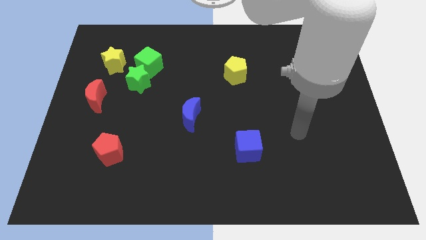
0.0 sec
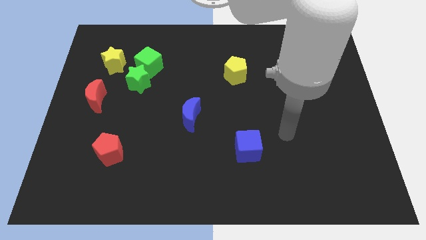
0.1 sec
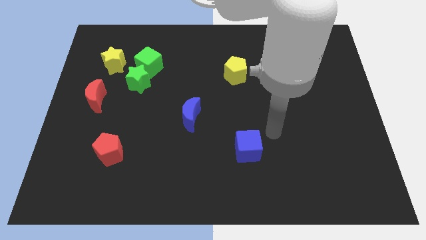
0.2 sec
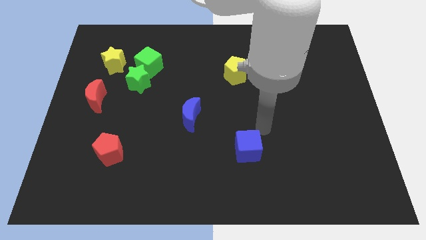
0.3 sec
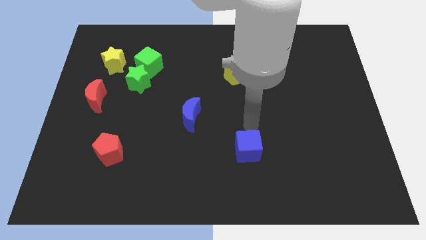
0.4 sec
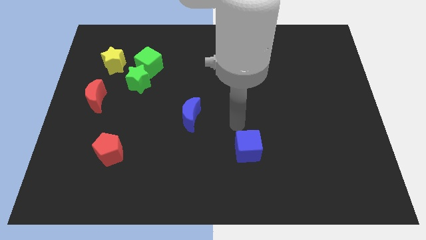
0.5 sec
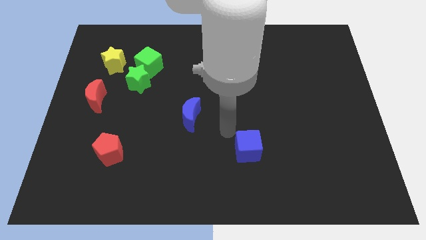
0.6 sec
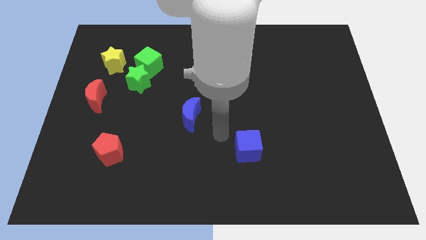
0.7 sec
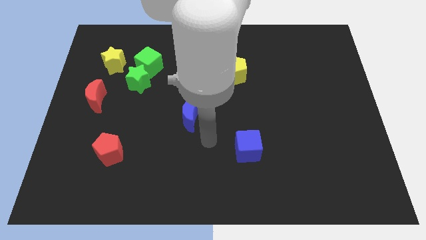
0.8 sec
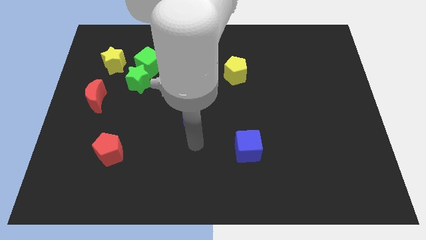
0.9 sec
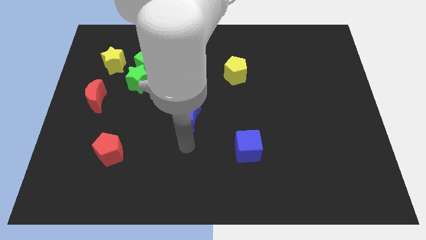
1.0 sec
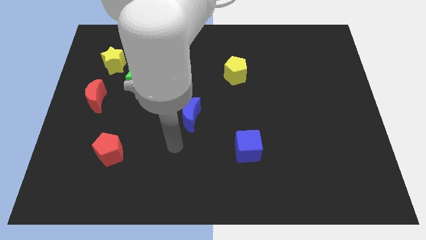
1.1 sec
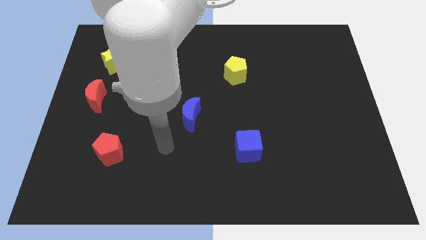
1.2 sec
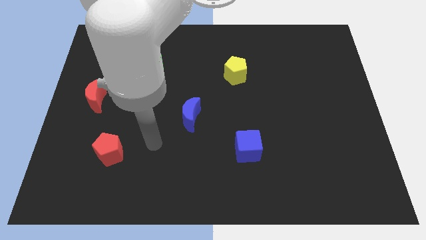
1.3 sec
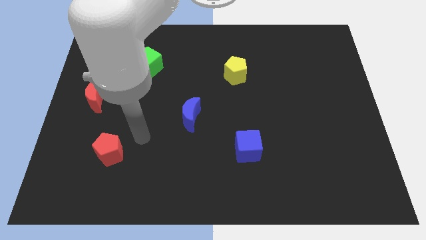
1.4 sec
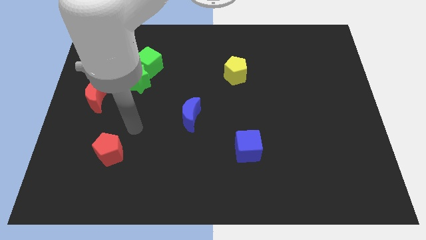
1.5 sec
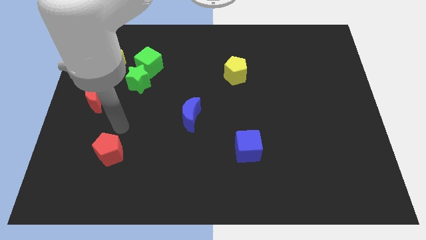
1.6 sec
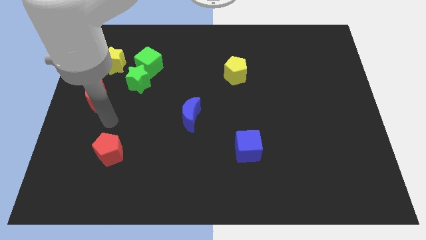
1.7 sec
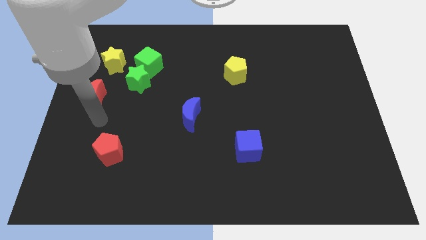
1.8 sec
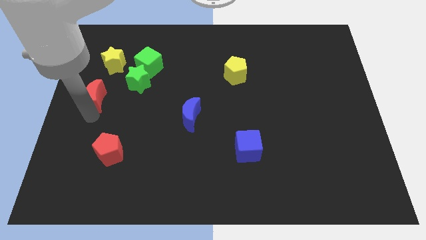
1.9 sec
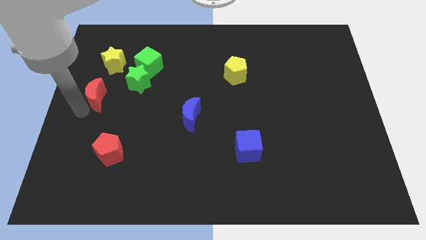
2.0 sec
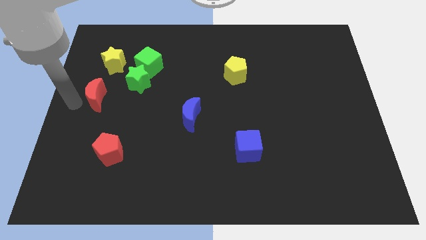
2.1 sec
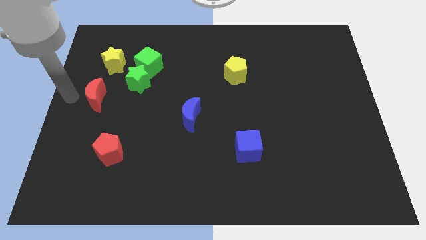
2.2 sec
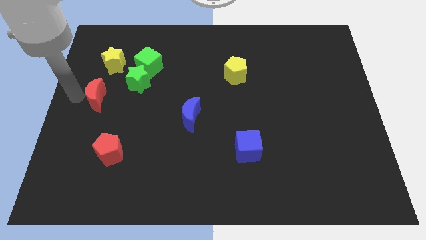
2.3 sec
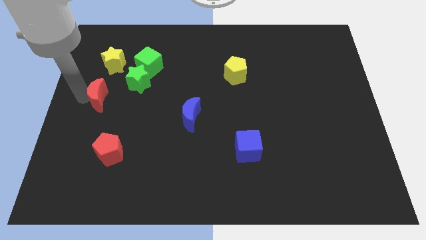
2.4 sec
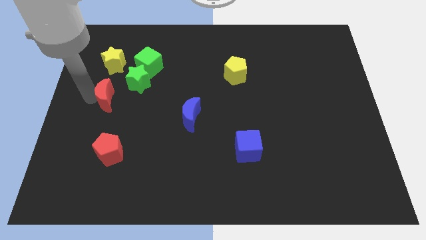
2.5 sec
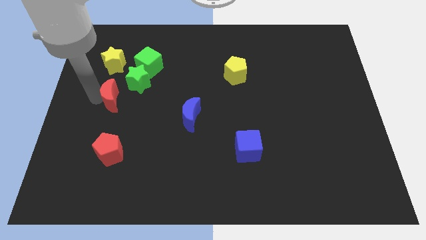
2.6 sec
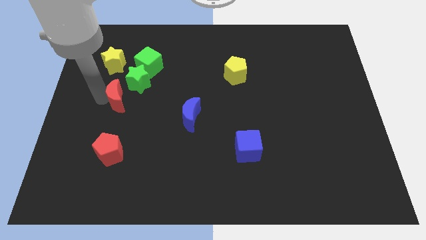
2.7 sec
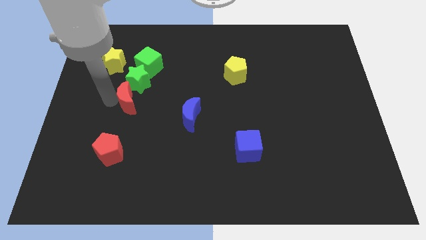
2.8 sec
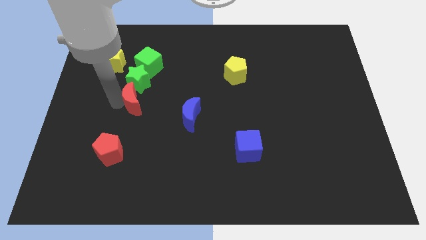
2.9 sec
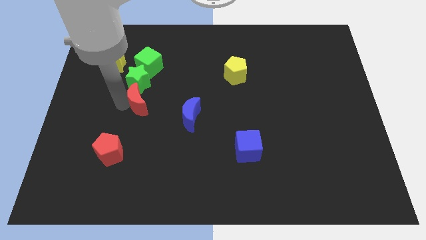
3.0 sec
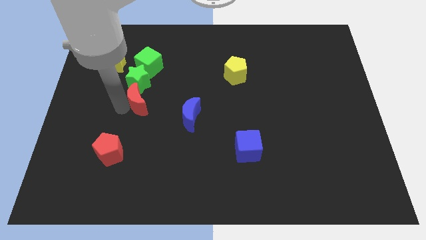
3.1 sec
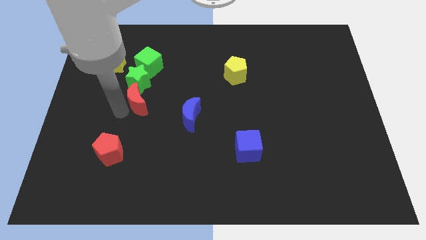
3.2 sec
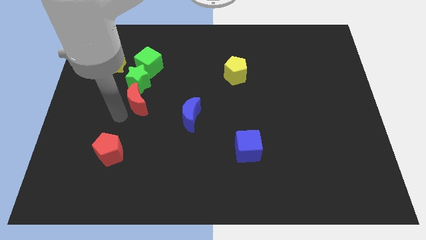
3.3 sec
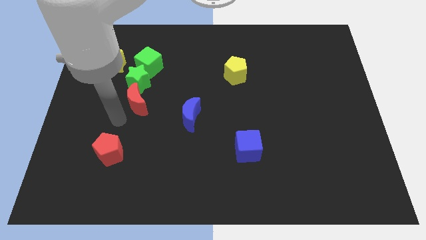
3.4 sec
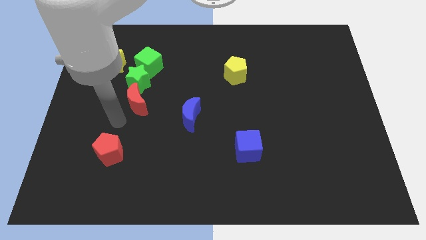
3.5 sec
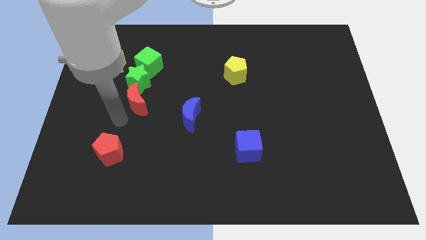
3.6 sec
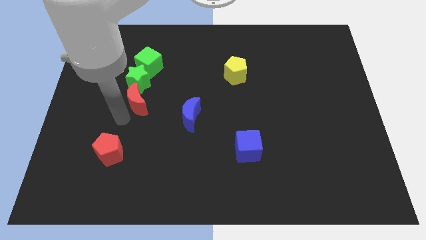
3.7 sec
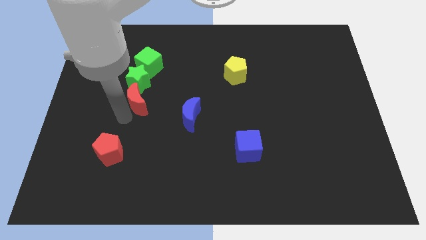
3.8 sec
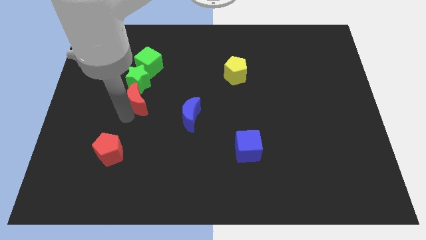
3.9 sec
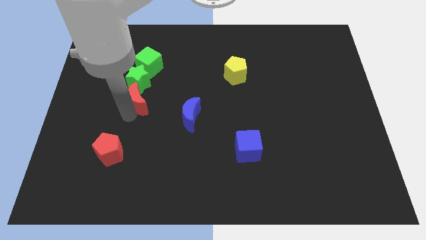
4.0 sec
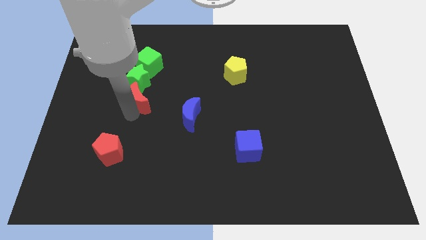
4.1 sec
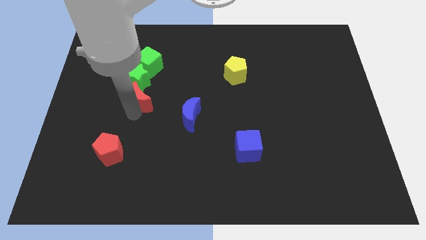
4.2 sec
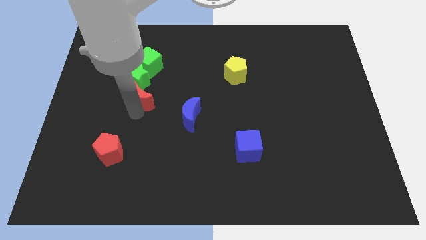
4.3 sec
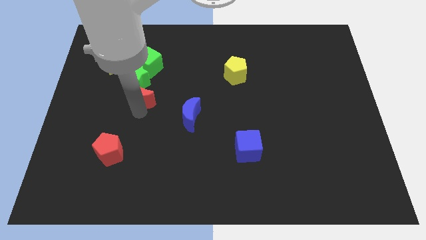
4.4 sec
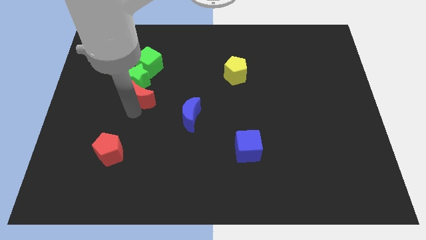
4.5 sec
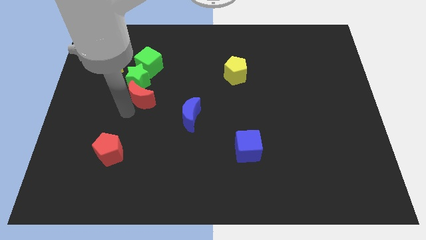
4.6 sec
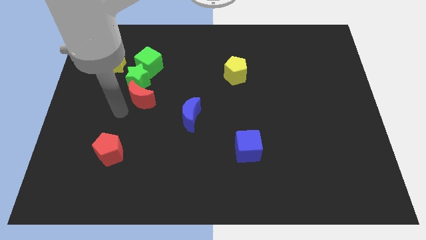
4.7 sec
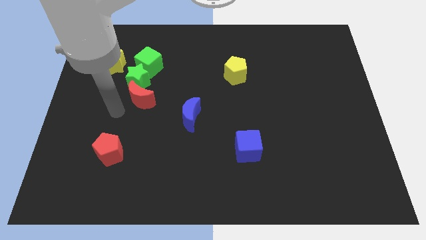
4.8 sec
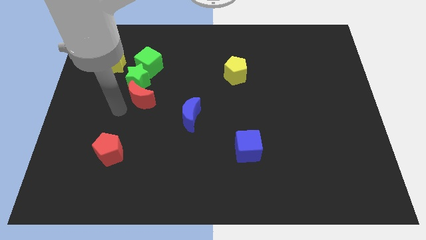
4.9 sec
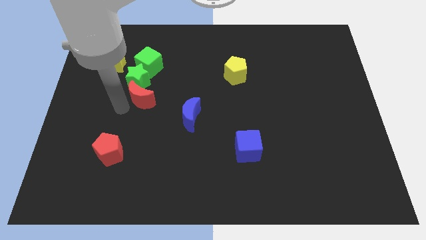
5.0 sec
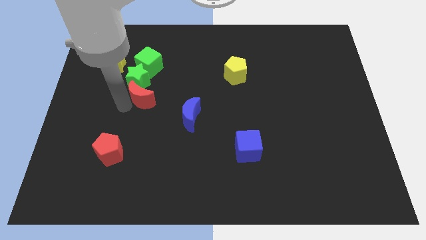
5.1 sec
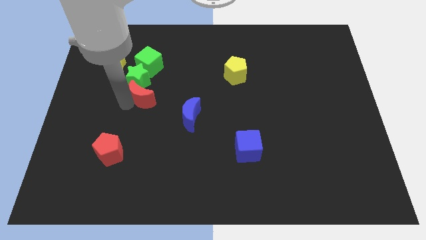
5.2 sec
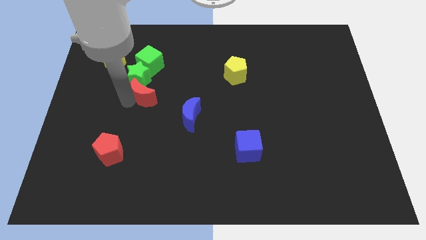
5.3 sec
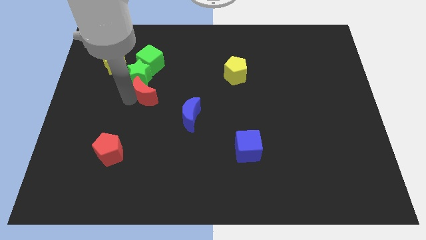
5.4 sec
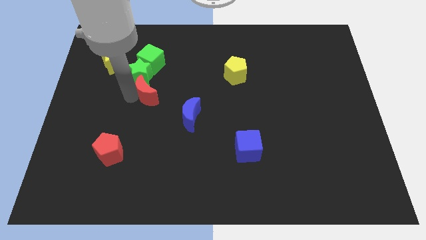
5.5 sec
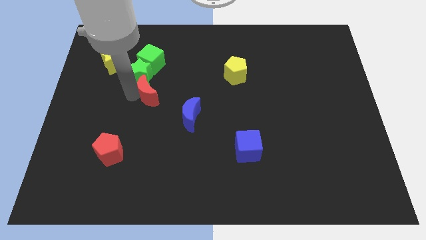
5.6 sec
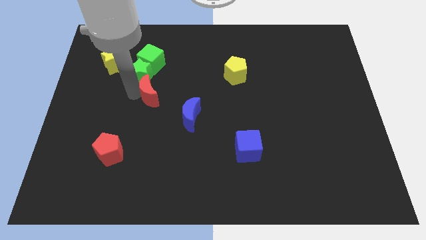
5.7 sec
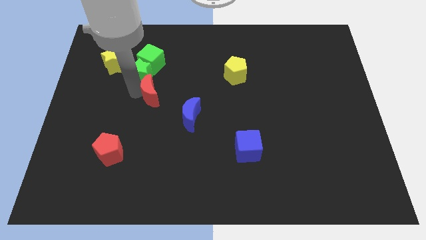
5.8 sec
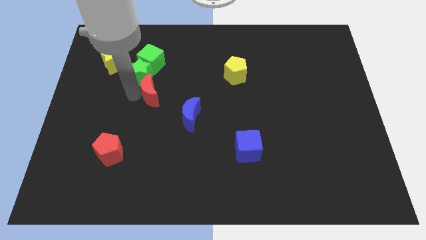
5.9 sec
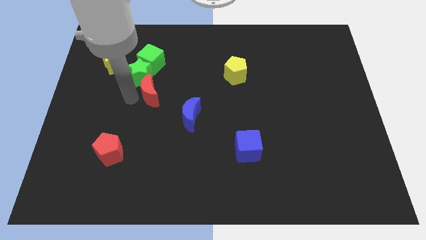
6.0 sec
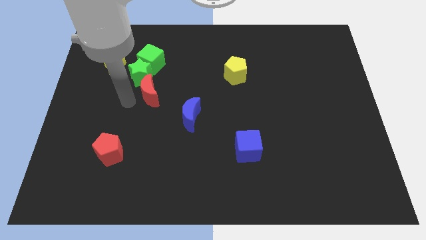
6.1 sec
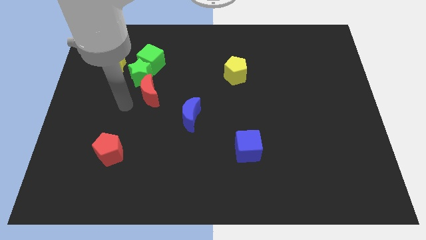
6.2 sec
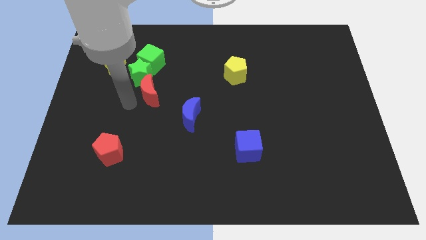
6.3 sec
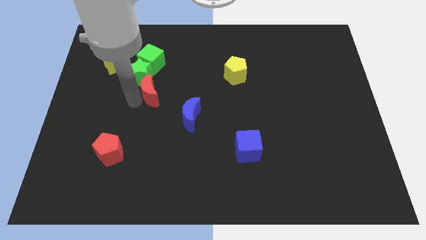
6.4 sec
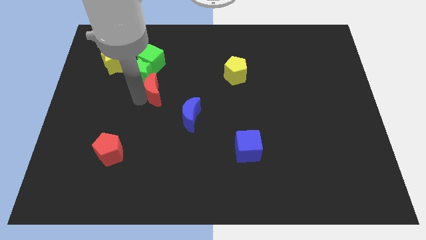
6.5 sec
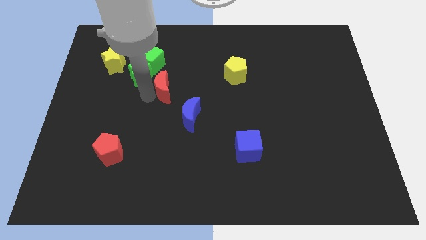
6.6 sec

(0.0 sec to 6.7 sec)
put the red moon just right of the green star
